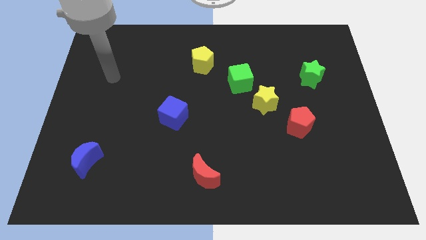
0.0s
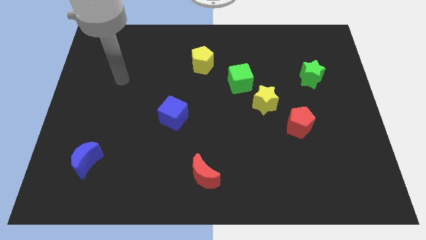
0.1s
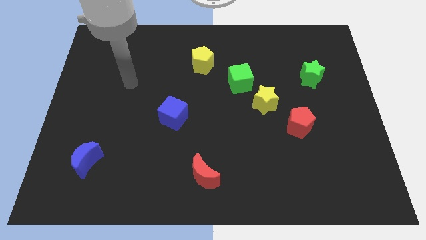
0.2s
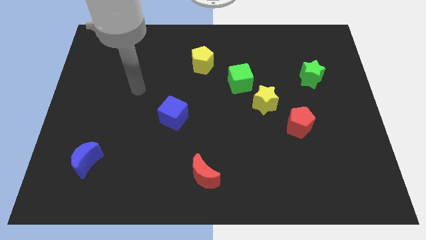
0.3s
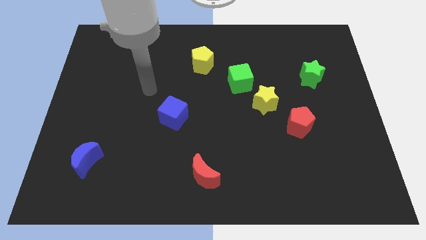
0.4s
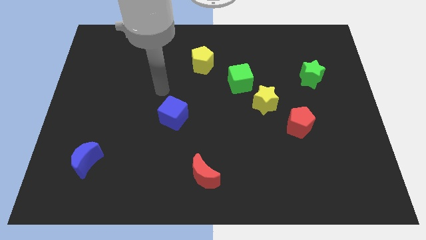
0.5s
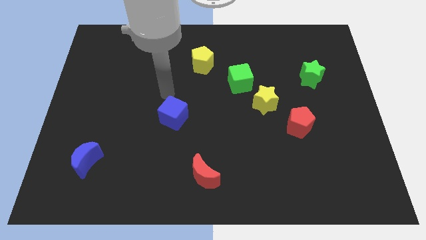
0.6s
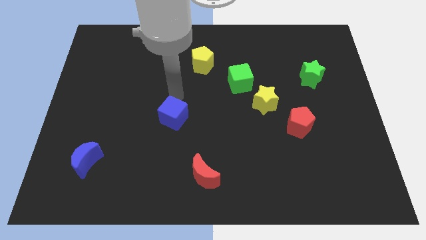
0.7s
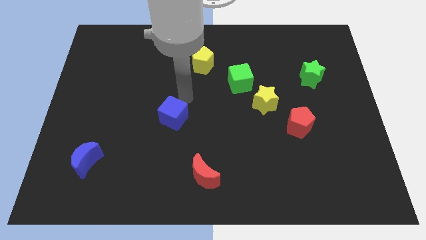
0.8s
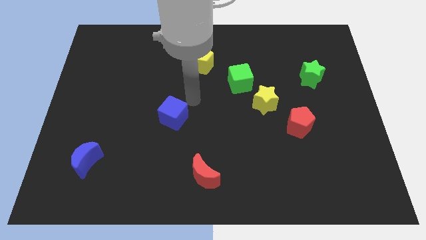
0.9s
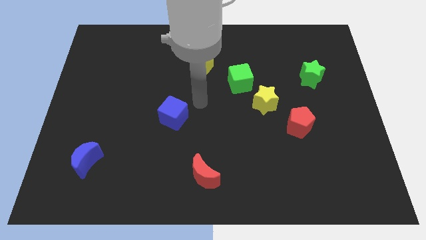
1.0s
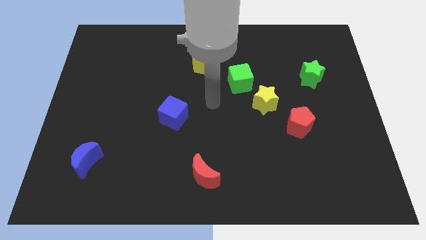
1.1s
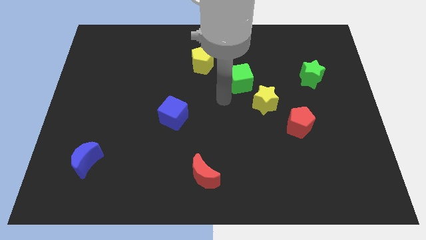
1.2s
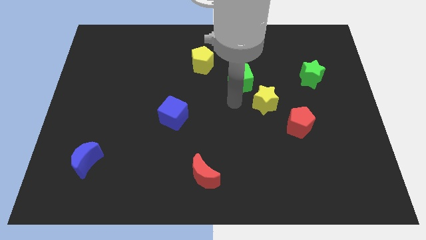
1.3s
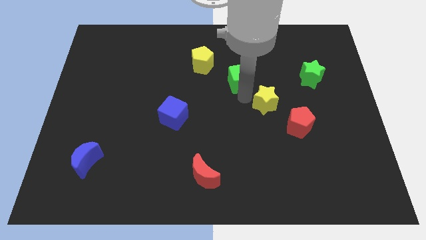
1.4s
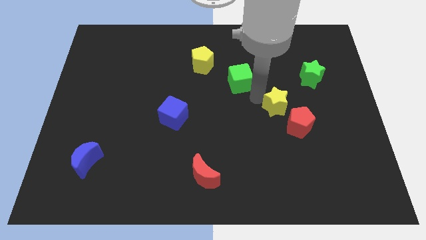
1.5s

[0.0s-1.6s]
move the green cube away from the yellow star

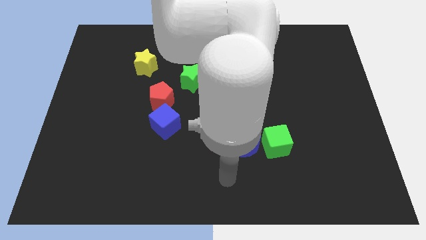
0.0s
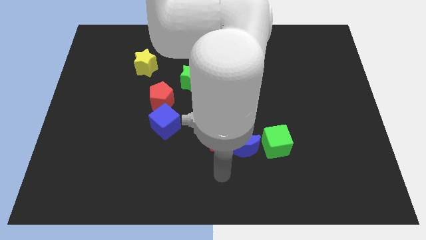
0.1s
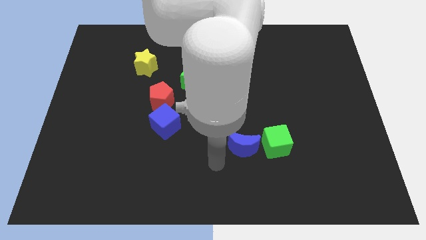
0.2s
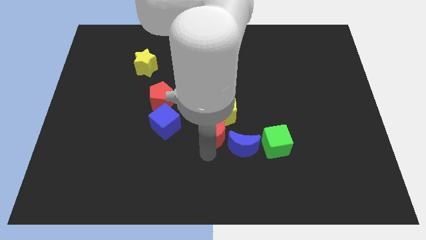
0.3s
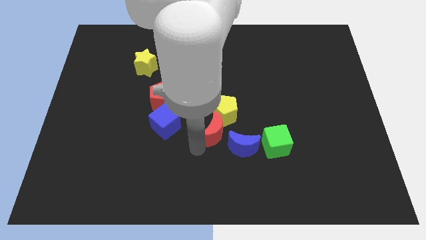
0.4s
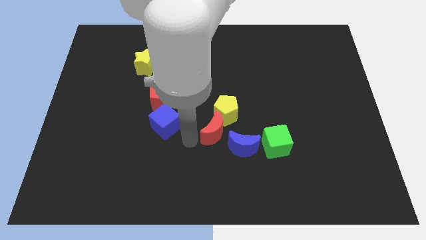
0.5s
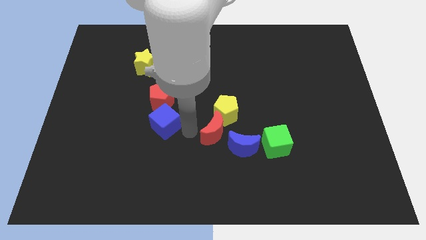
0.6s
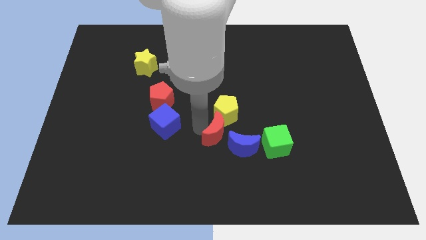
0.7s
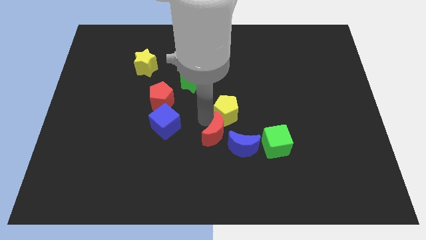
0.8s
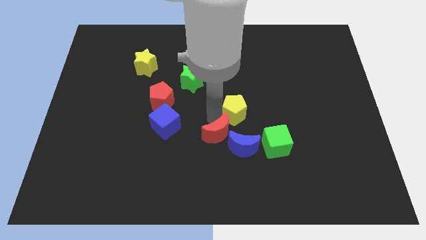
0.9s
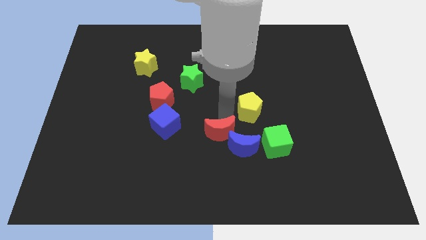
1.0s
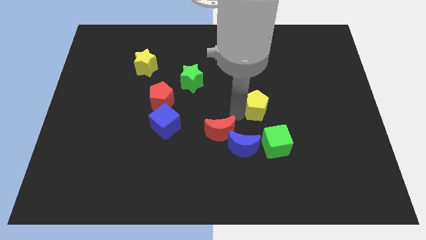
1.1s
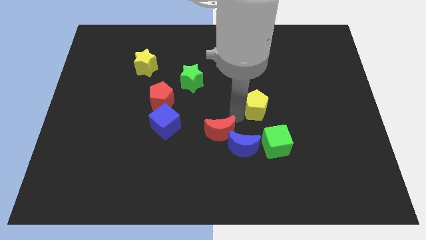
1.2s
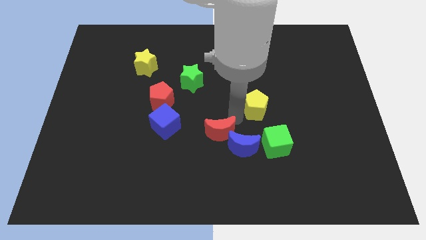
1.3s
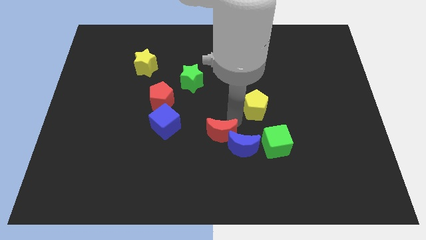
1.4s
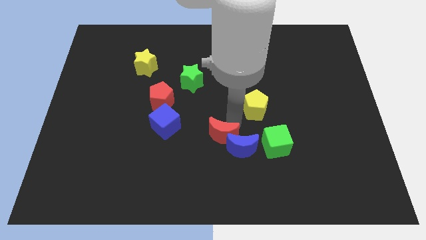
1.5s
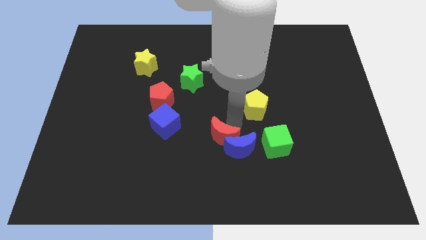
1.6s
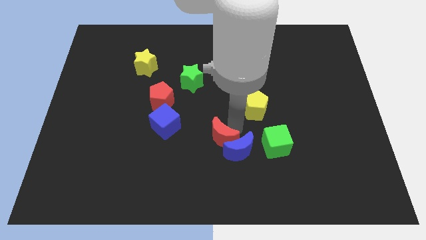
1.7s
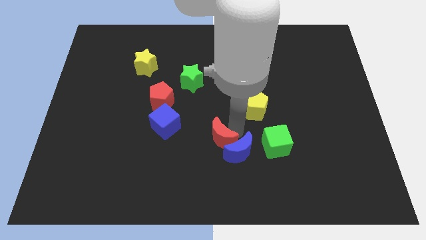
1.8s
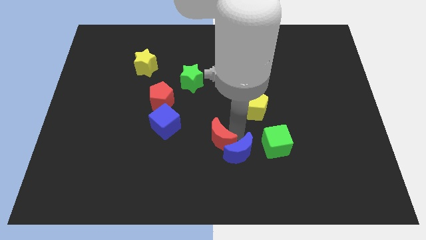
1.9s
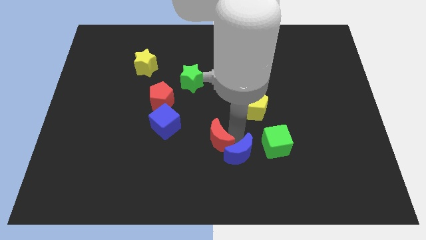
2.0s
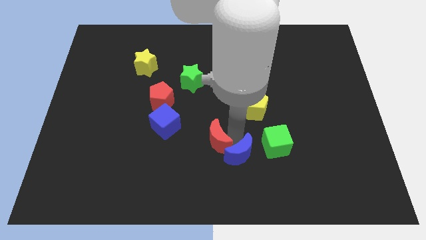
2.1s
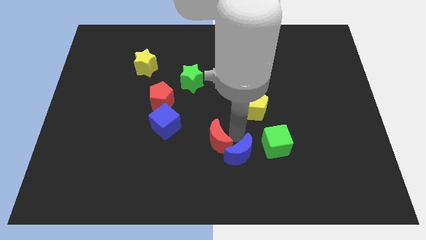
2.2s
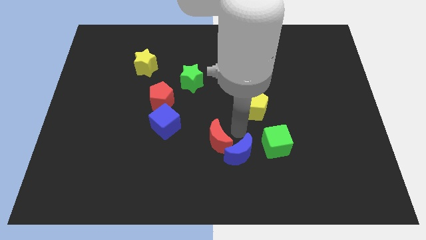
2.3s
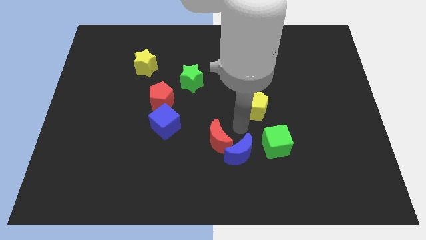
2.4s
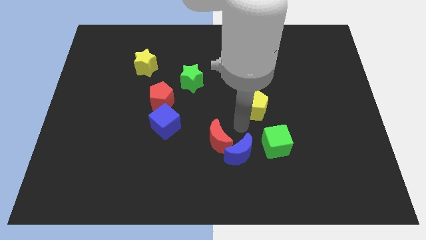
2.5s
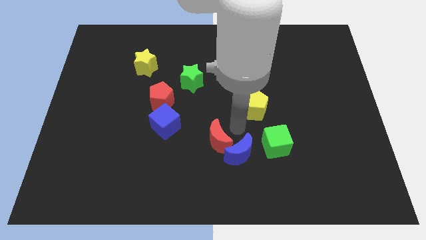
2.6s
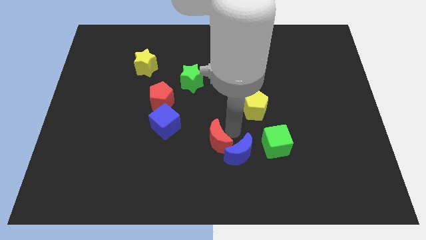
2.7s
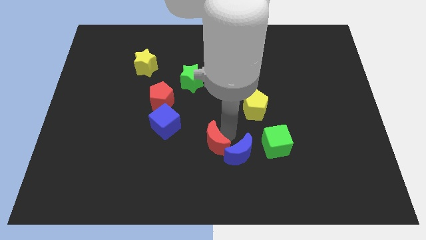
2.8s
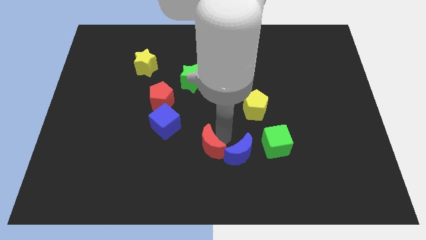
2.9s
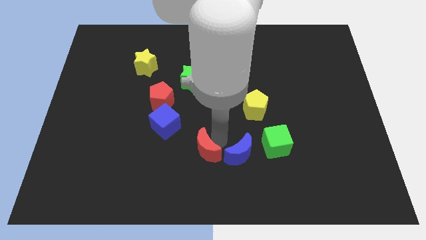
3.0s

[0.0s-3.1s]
move the red moon away from the blue moon and yellow pentagon

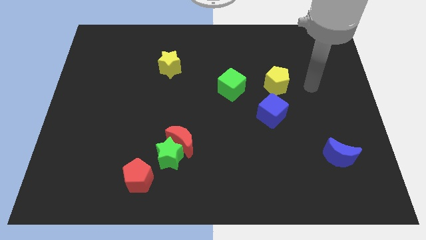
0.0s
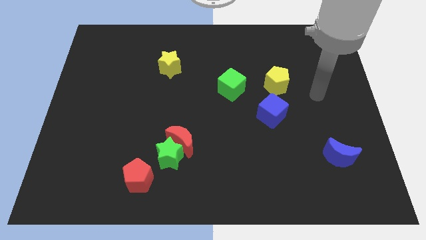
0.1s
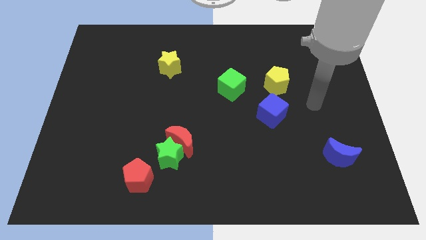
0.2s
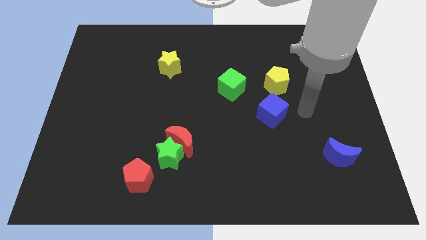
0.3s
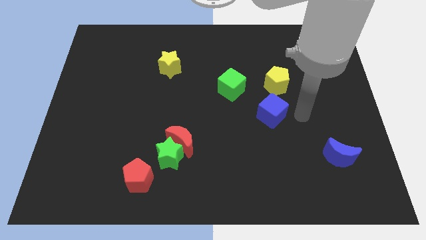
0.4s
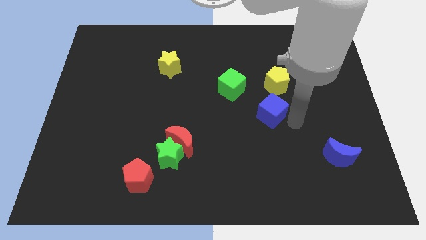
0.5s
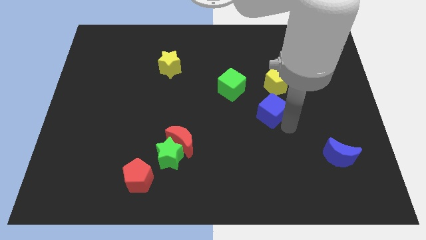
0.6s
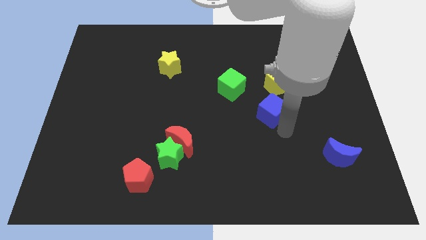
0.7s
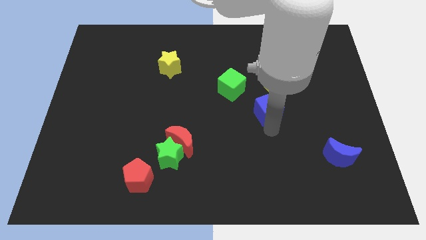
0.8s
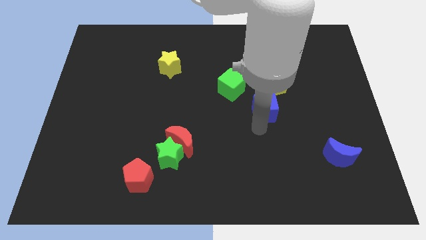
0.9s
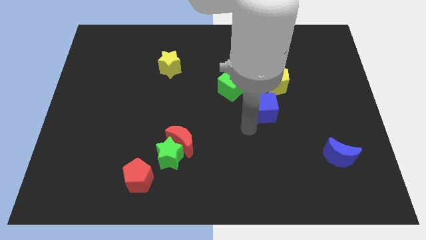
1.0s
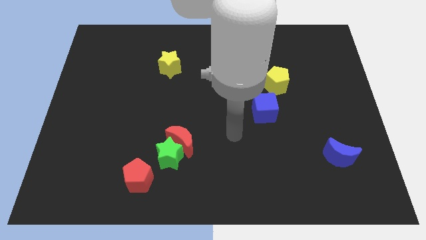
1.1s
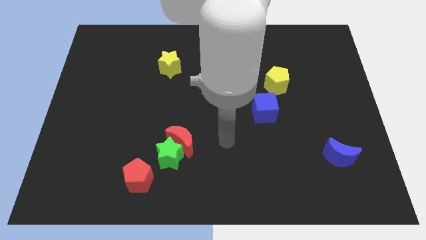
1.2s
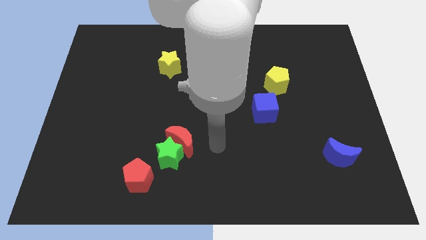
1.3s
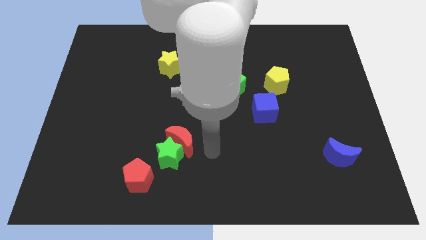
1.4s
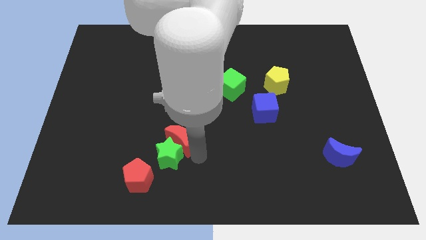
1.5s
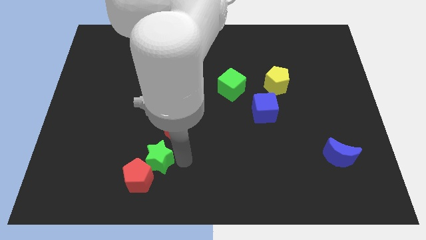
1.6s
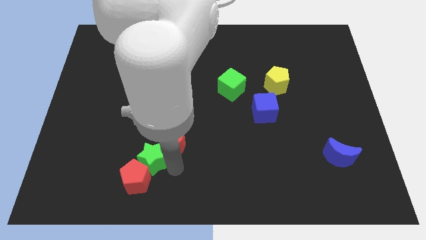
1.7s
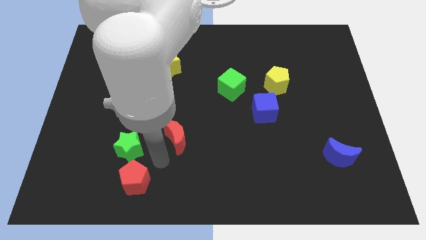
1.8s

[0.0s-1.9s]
separate the red moon from the green star

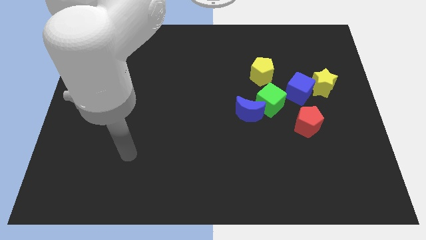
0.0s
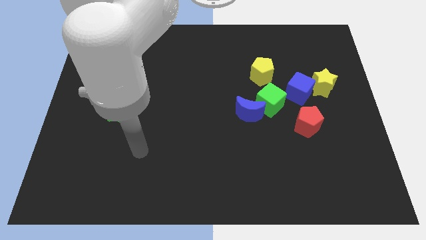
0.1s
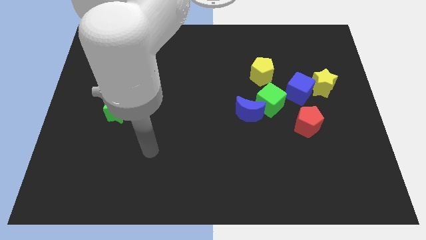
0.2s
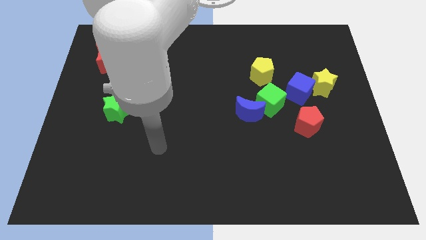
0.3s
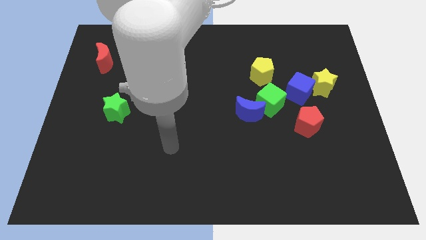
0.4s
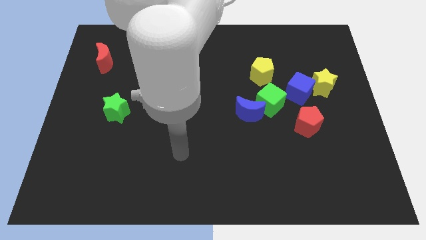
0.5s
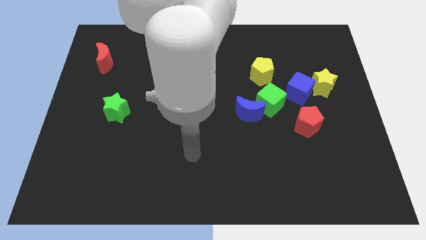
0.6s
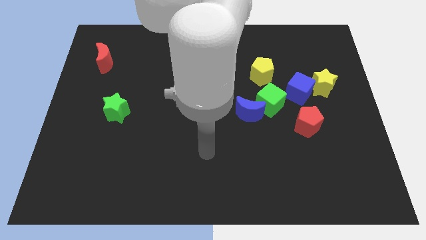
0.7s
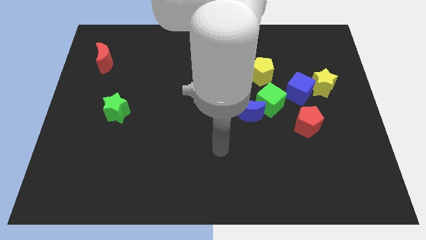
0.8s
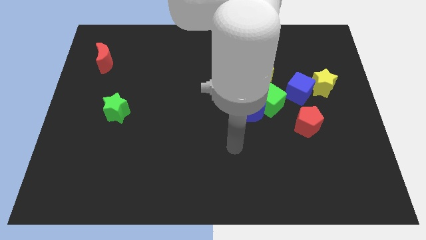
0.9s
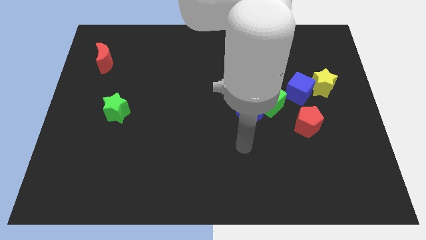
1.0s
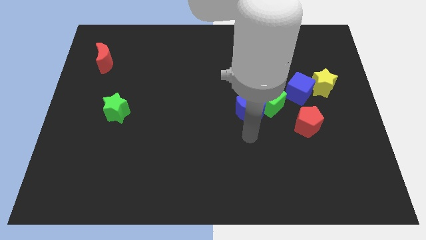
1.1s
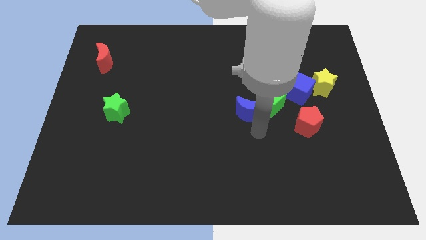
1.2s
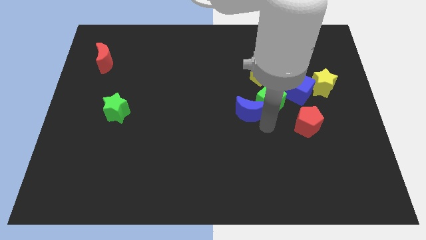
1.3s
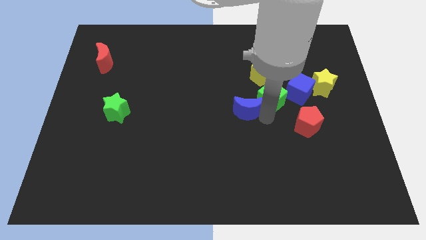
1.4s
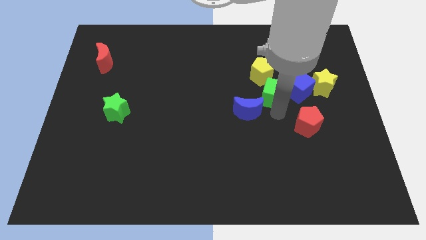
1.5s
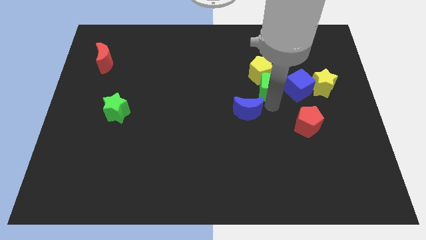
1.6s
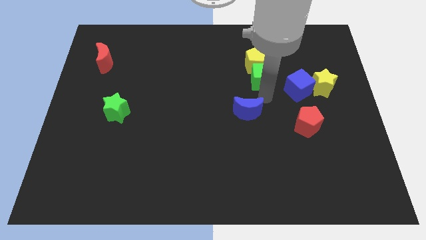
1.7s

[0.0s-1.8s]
move the blue moon away from the green cube

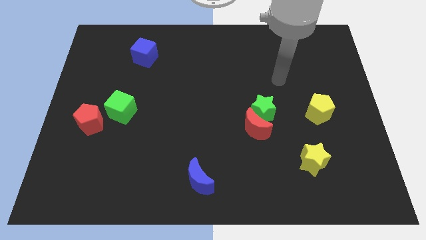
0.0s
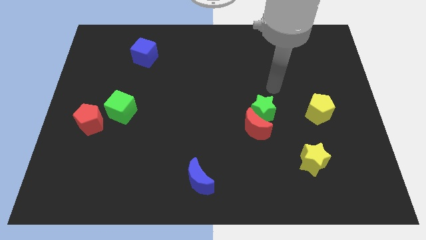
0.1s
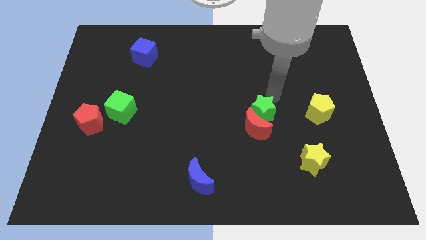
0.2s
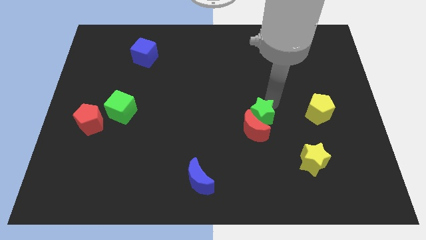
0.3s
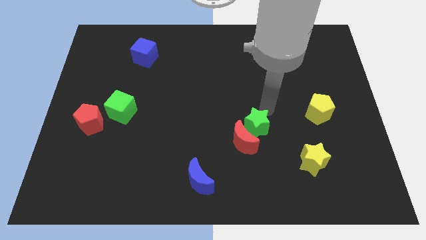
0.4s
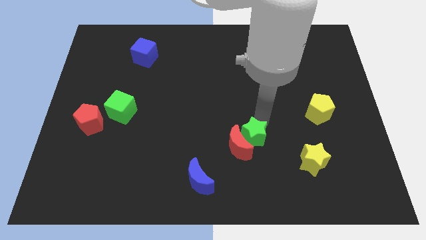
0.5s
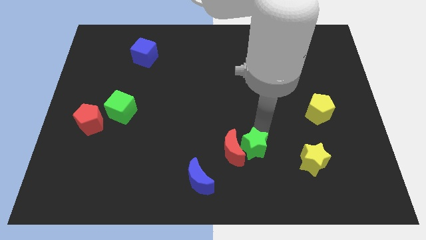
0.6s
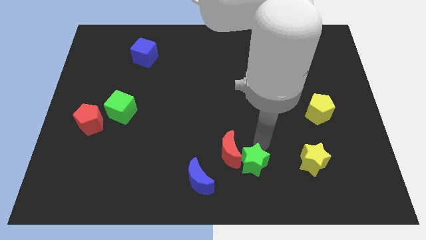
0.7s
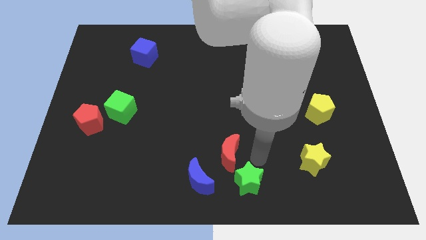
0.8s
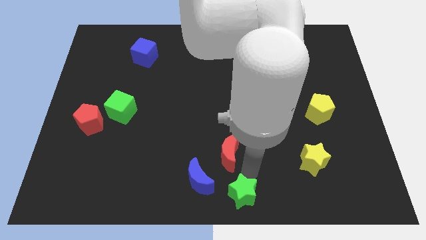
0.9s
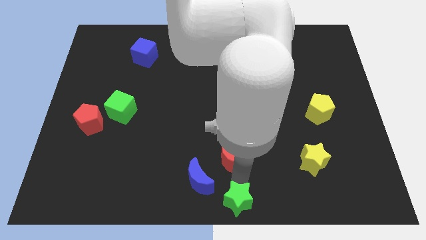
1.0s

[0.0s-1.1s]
pull the red moon apart from the green star
